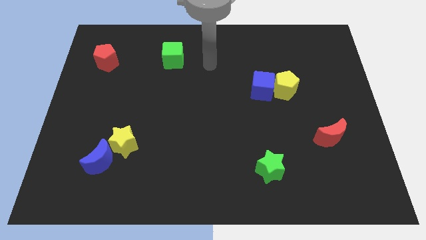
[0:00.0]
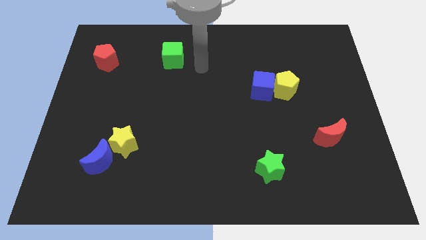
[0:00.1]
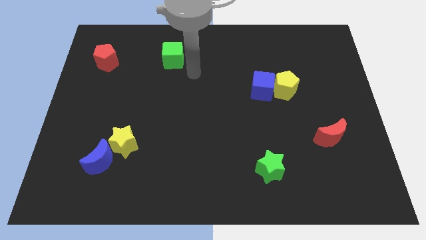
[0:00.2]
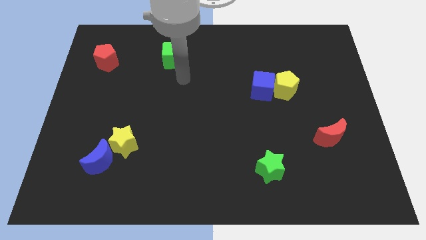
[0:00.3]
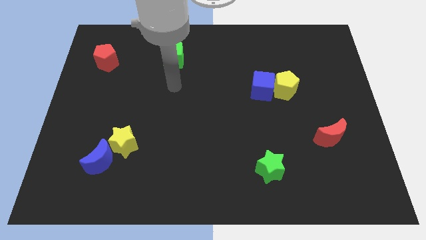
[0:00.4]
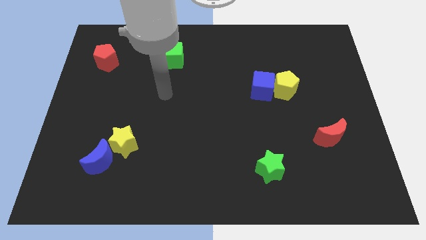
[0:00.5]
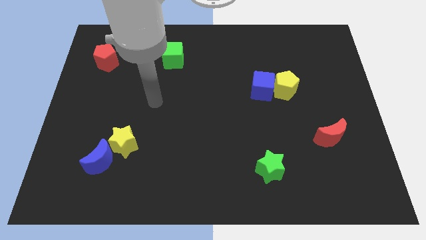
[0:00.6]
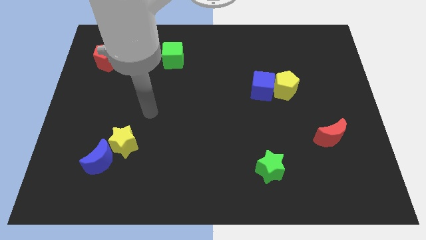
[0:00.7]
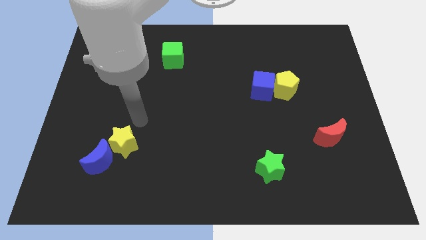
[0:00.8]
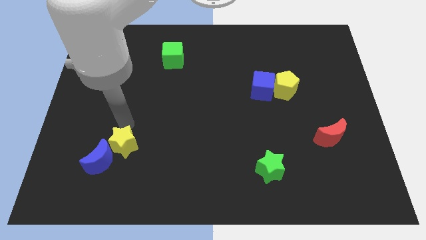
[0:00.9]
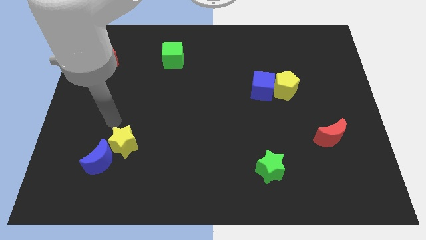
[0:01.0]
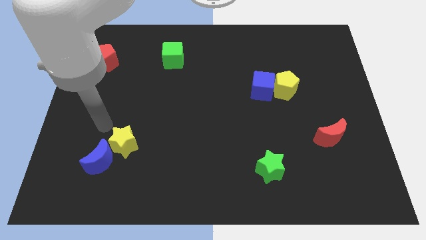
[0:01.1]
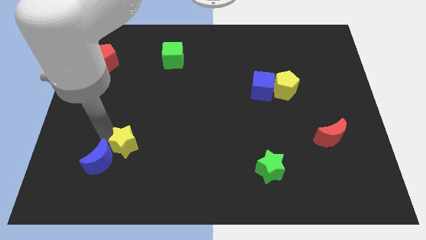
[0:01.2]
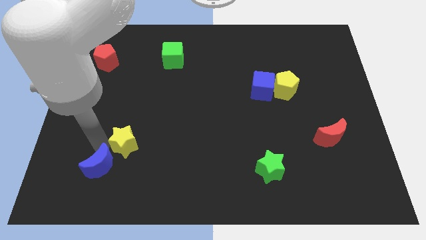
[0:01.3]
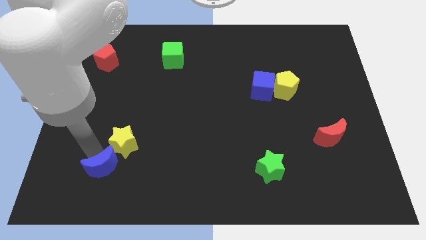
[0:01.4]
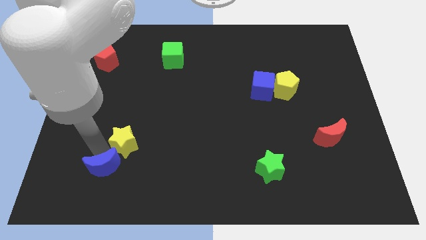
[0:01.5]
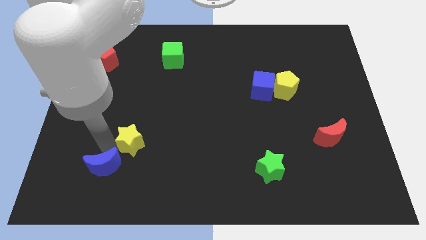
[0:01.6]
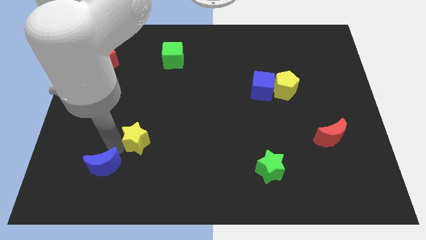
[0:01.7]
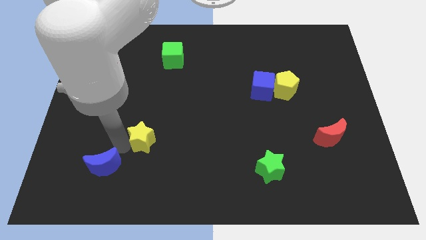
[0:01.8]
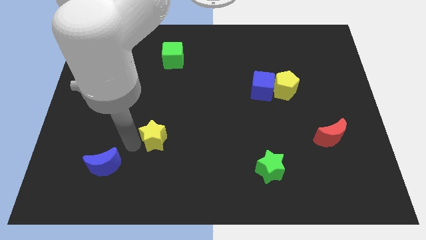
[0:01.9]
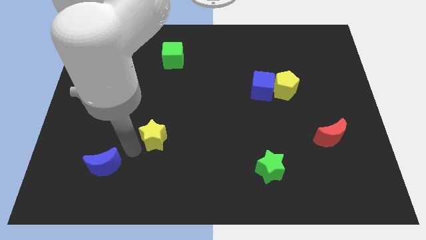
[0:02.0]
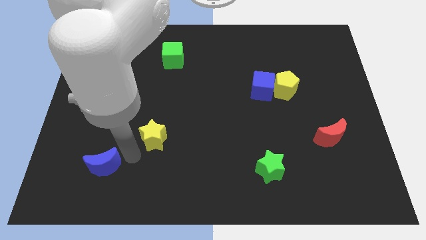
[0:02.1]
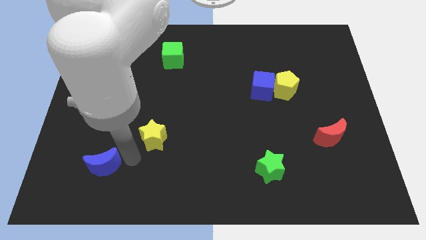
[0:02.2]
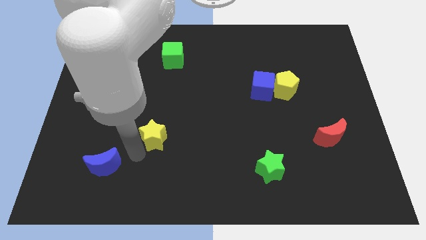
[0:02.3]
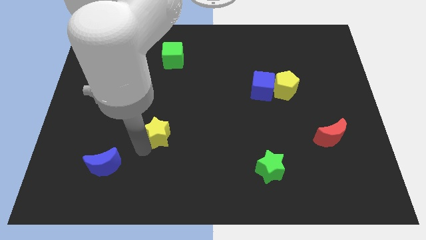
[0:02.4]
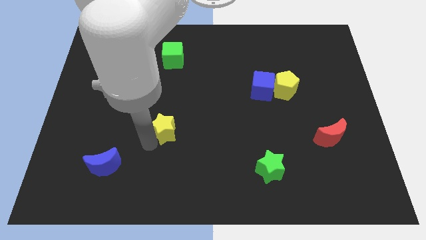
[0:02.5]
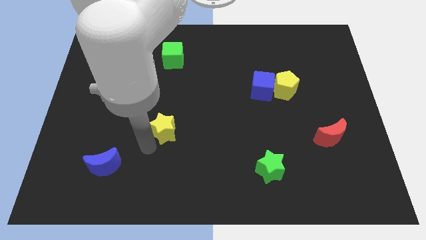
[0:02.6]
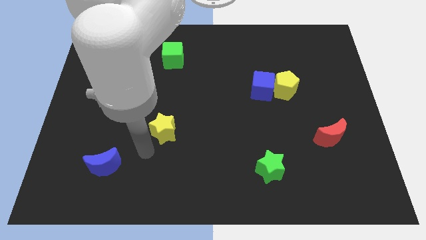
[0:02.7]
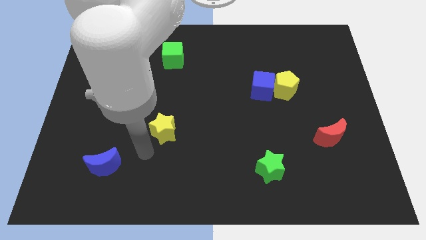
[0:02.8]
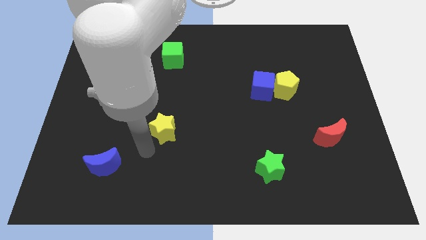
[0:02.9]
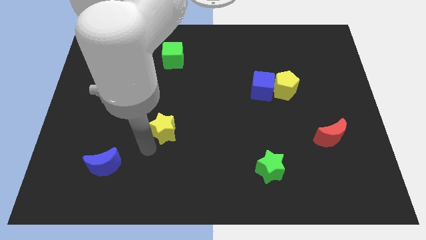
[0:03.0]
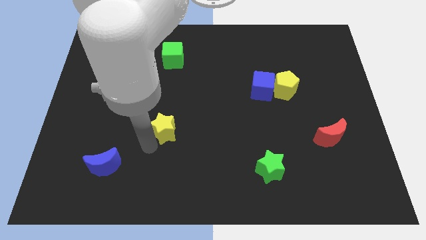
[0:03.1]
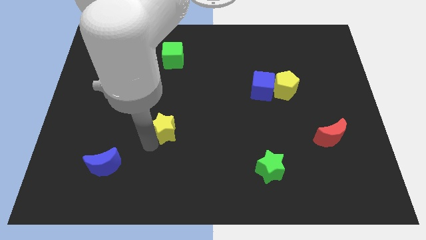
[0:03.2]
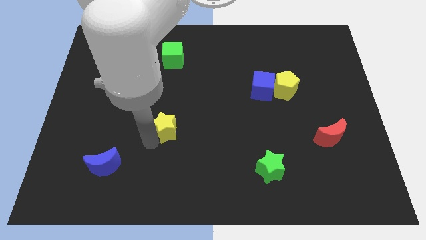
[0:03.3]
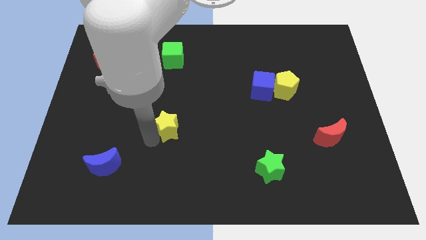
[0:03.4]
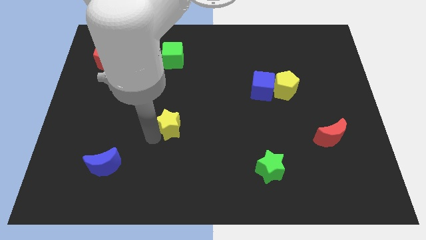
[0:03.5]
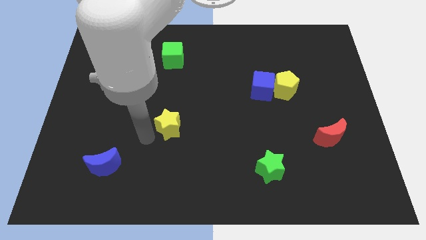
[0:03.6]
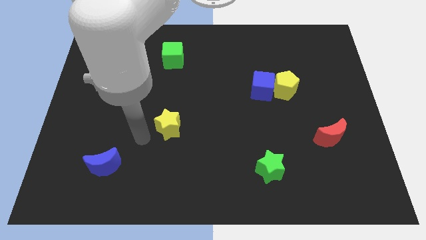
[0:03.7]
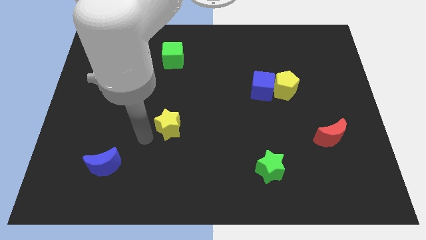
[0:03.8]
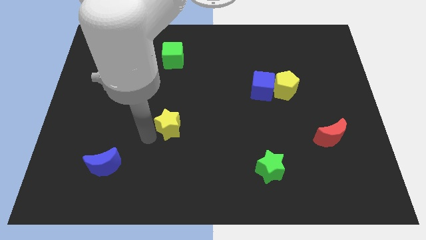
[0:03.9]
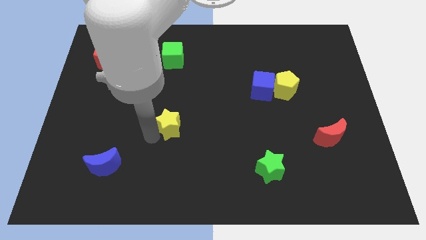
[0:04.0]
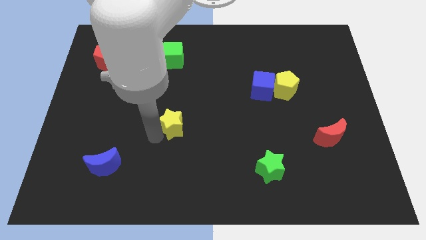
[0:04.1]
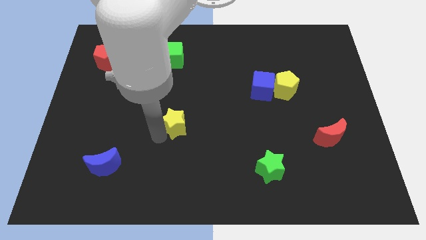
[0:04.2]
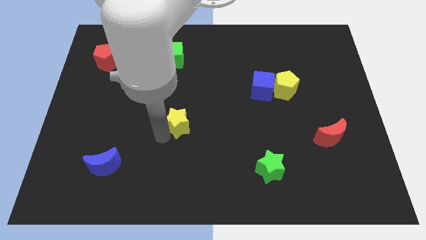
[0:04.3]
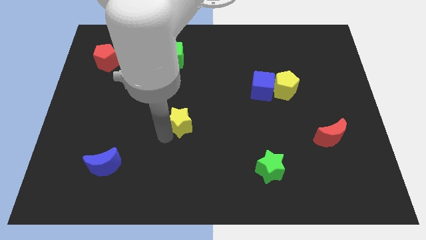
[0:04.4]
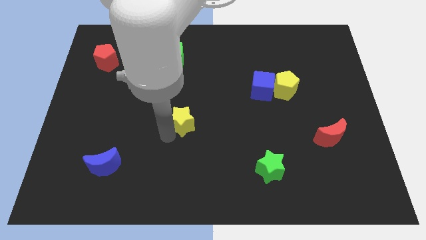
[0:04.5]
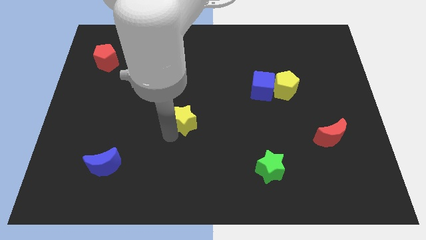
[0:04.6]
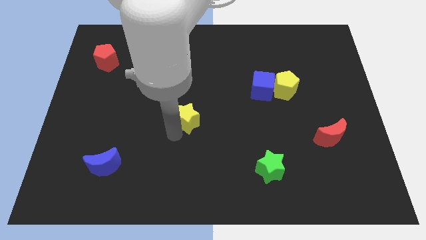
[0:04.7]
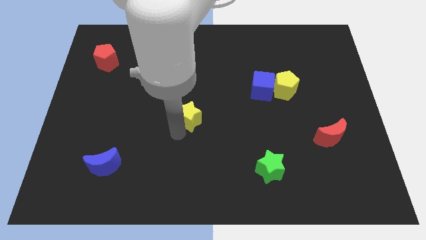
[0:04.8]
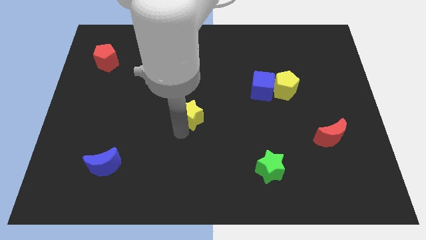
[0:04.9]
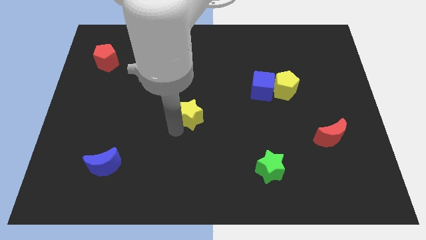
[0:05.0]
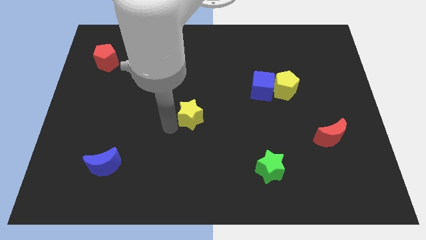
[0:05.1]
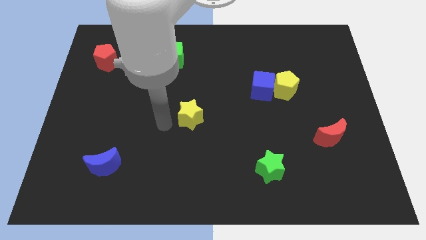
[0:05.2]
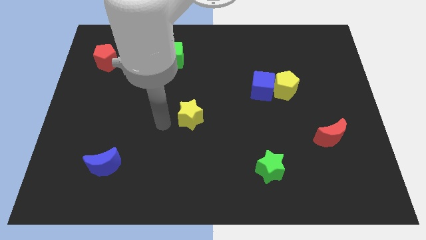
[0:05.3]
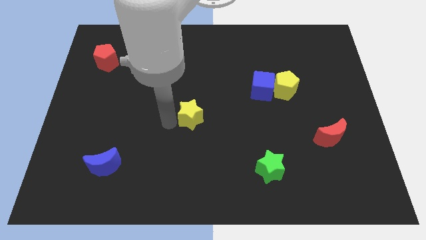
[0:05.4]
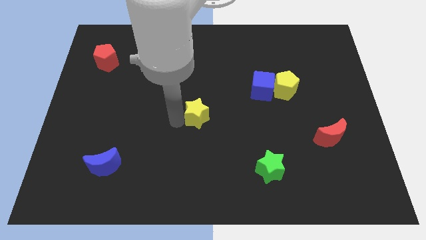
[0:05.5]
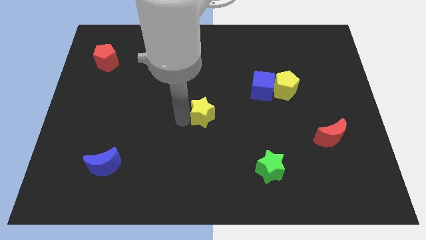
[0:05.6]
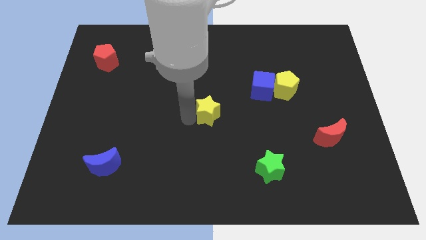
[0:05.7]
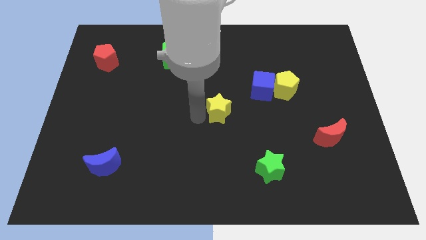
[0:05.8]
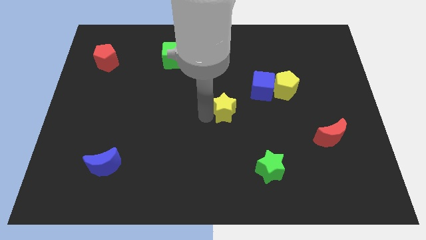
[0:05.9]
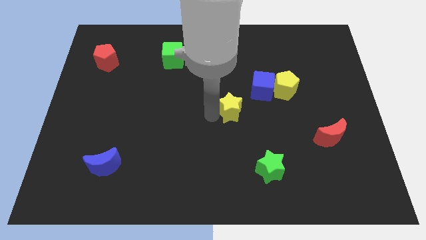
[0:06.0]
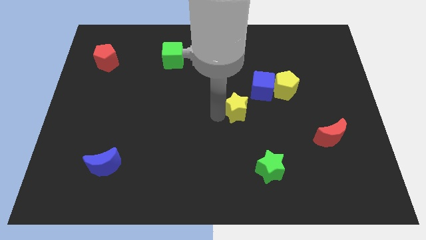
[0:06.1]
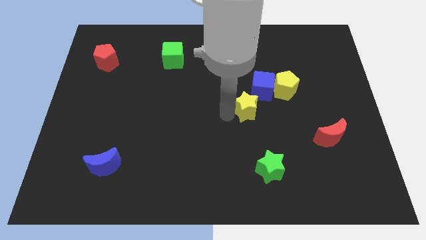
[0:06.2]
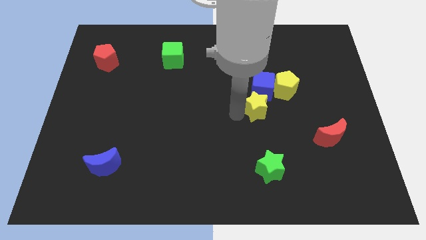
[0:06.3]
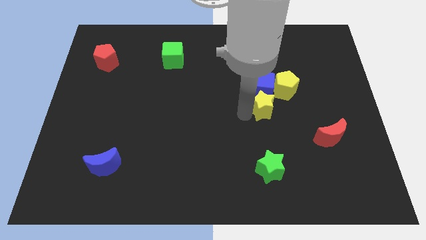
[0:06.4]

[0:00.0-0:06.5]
push the yellow star towards the blue cube

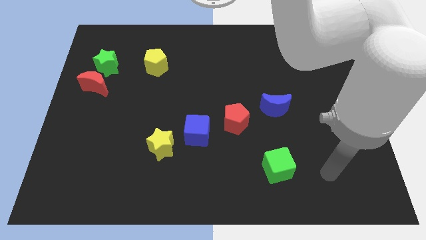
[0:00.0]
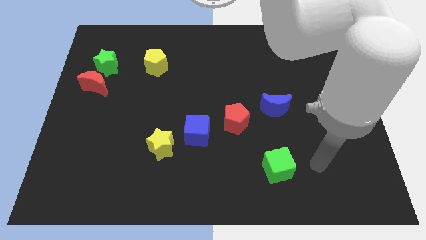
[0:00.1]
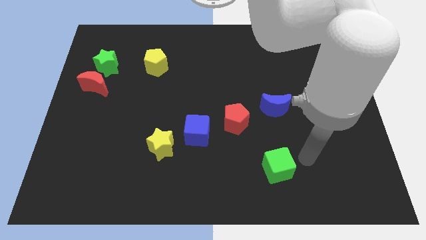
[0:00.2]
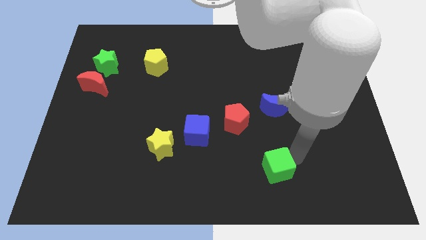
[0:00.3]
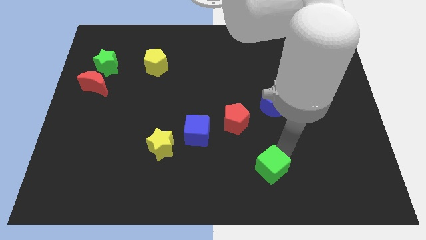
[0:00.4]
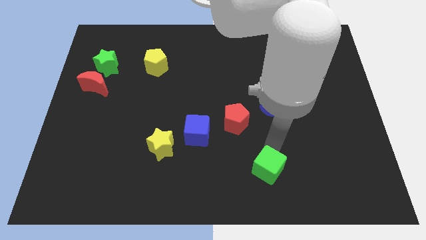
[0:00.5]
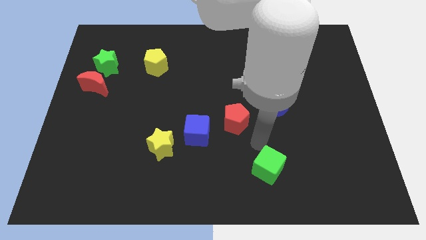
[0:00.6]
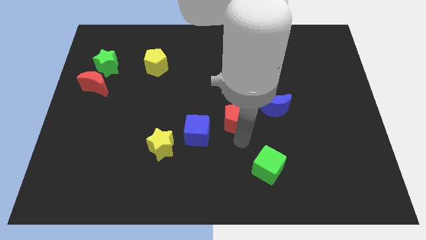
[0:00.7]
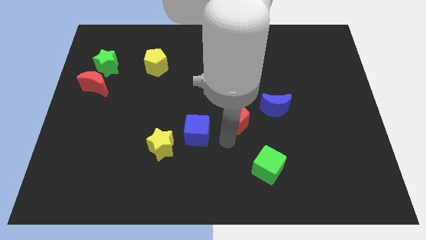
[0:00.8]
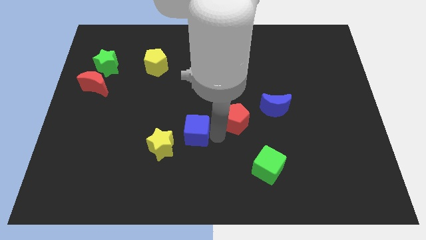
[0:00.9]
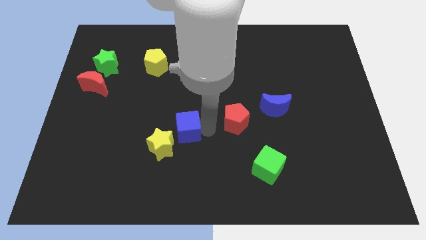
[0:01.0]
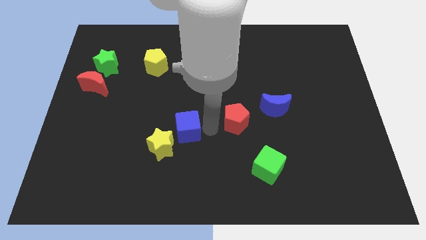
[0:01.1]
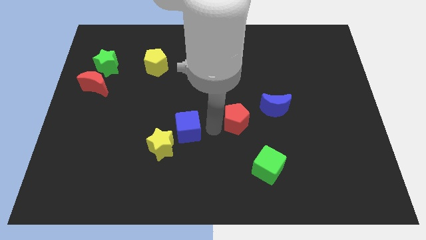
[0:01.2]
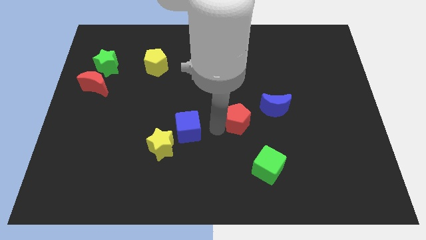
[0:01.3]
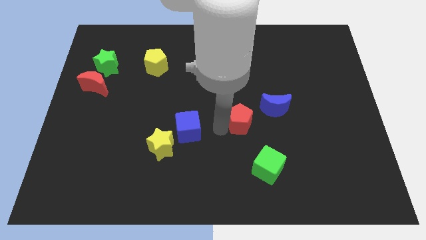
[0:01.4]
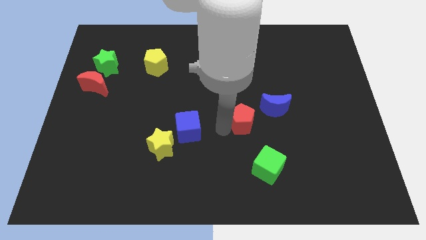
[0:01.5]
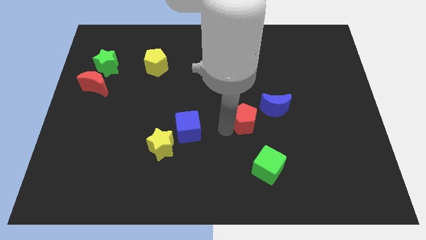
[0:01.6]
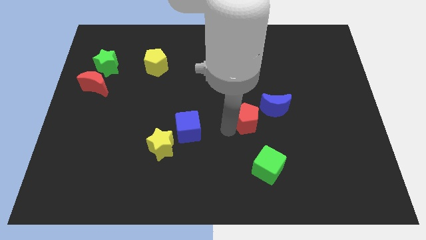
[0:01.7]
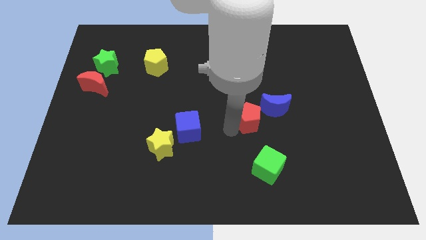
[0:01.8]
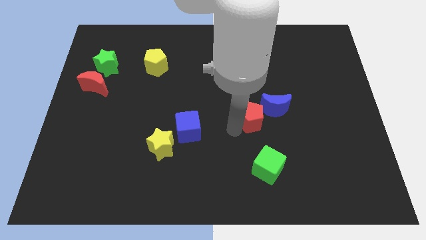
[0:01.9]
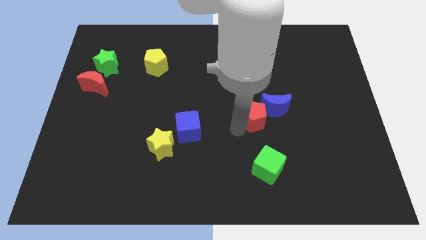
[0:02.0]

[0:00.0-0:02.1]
slide the red pentagon to the blue moon
